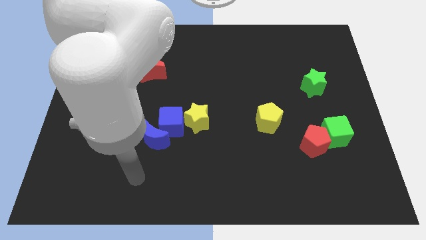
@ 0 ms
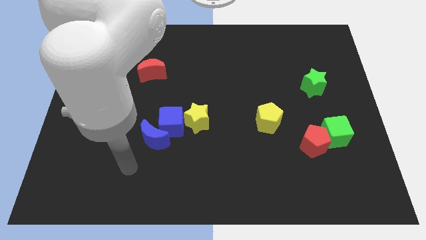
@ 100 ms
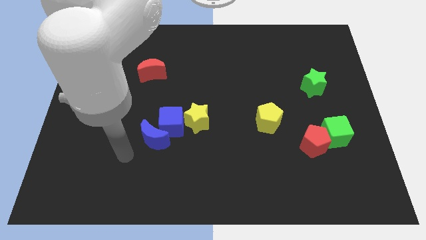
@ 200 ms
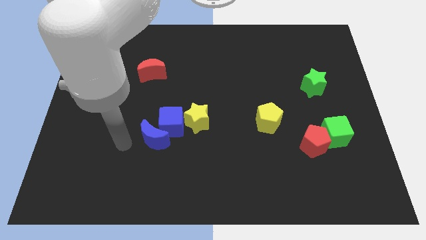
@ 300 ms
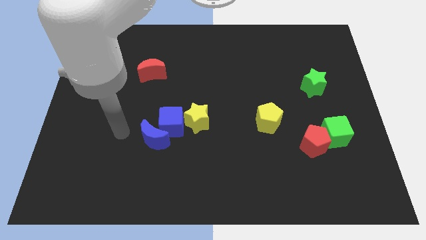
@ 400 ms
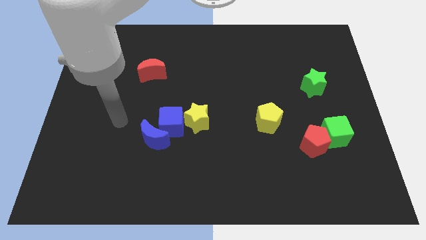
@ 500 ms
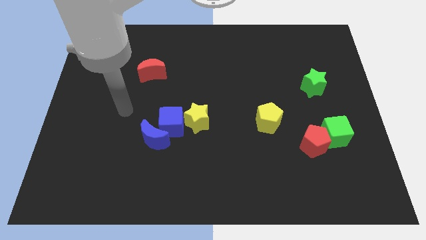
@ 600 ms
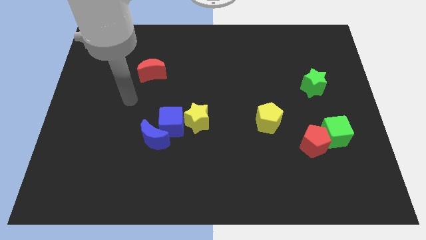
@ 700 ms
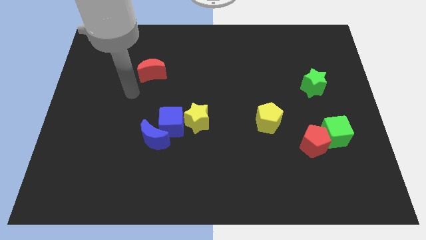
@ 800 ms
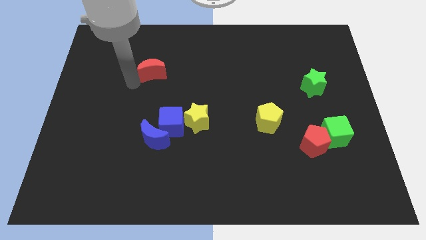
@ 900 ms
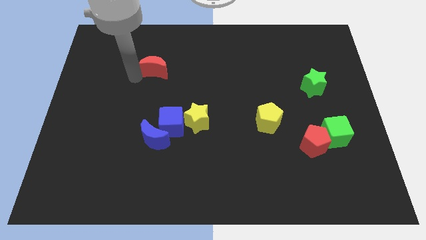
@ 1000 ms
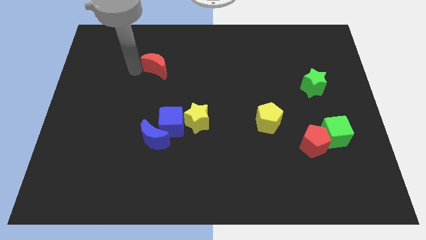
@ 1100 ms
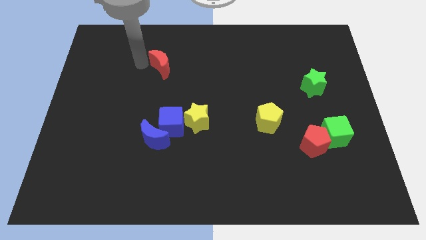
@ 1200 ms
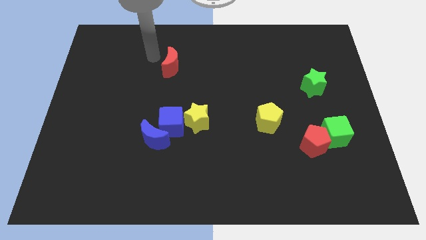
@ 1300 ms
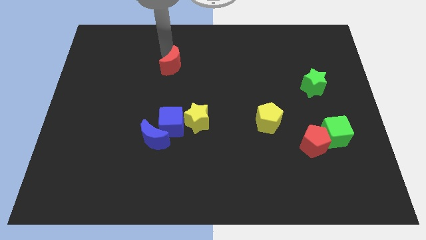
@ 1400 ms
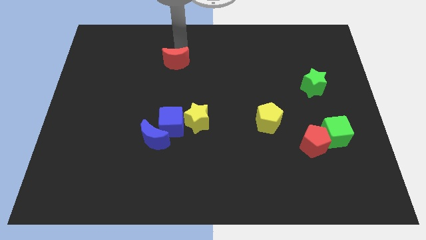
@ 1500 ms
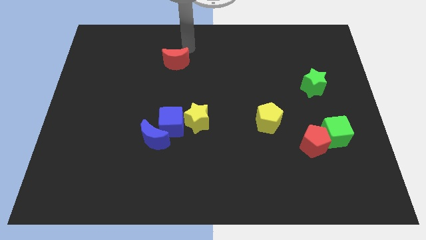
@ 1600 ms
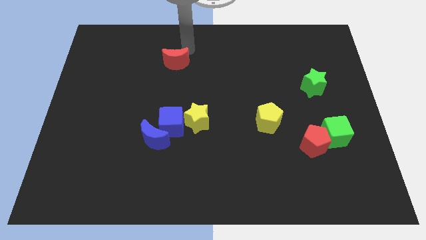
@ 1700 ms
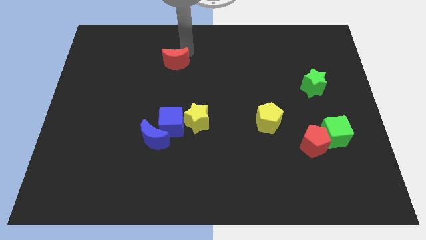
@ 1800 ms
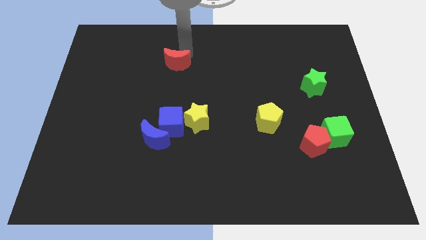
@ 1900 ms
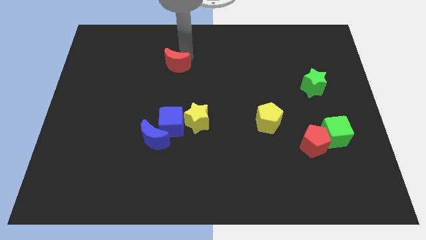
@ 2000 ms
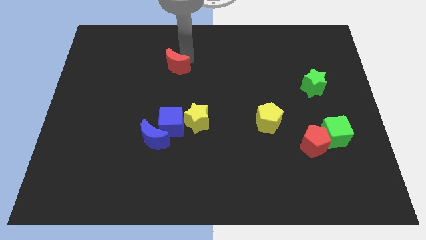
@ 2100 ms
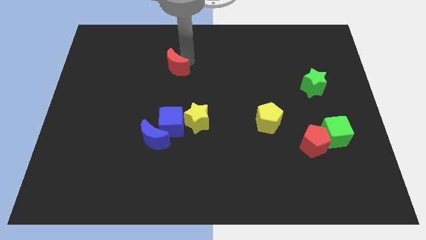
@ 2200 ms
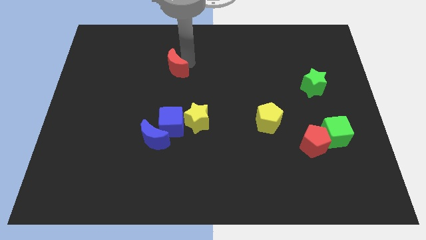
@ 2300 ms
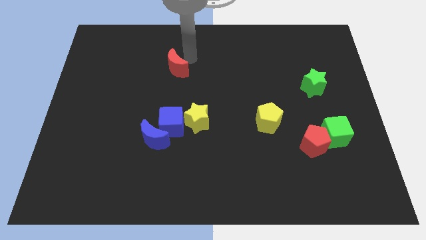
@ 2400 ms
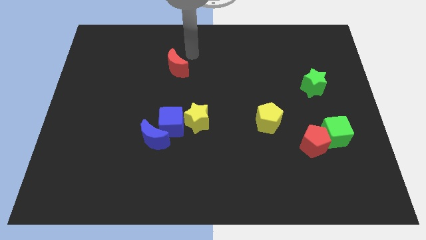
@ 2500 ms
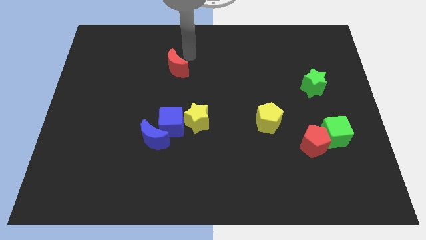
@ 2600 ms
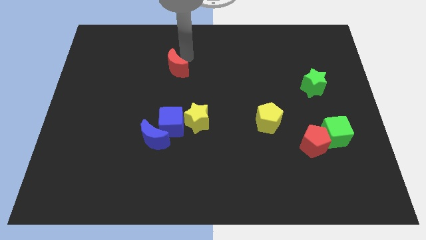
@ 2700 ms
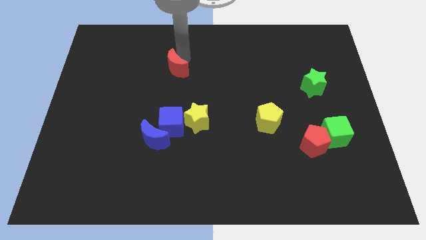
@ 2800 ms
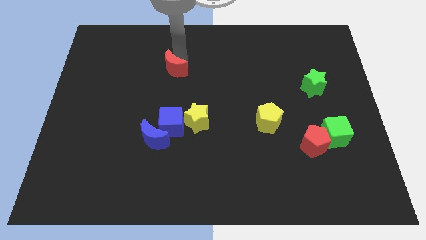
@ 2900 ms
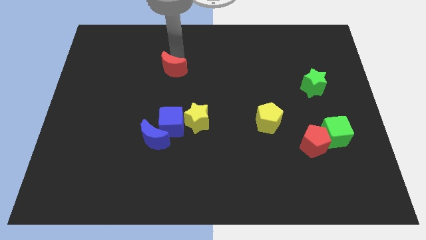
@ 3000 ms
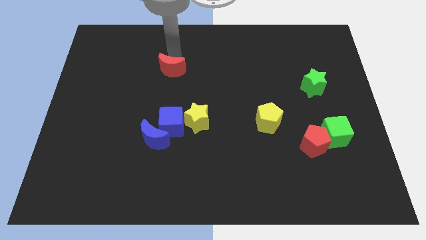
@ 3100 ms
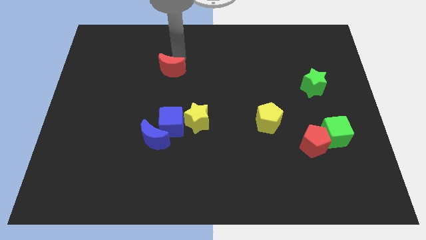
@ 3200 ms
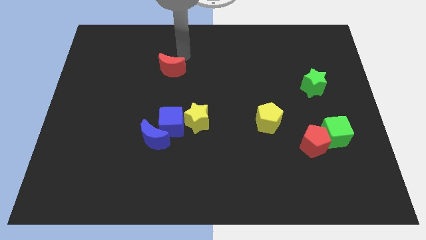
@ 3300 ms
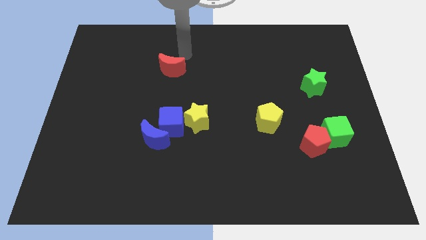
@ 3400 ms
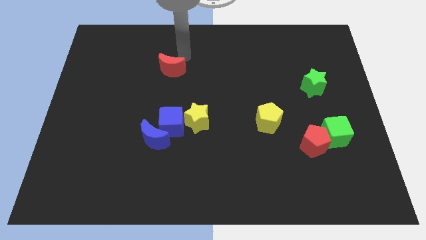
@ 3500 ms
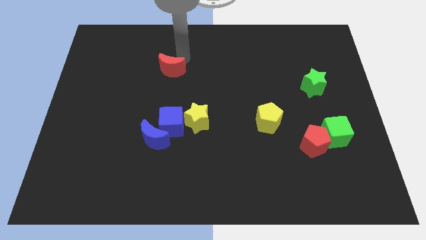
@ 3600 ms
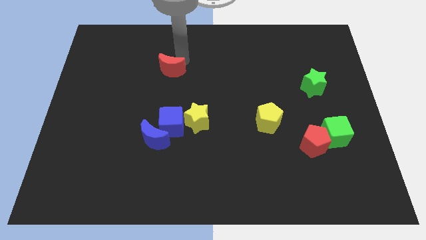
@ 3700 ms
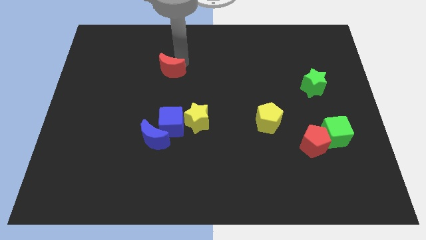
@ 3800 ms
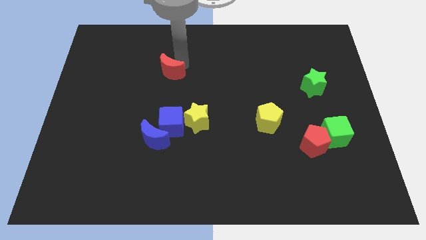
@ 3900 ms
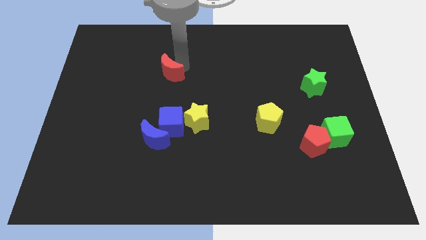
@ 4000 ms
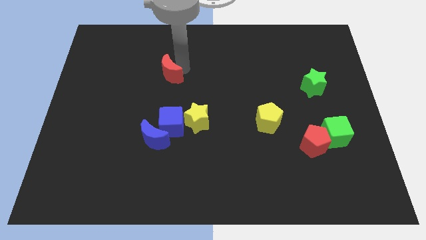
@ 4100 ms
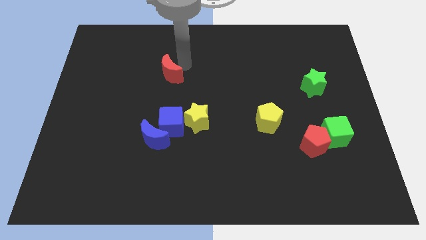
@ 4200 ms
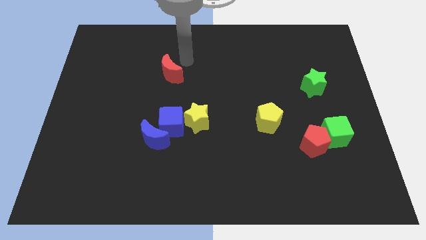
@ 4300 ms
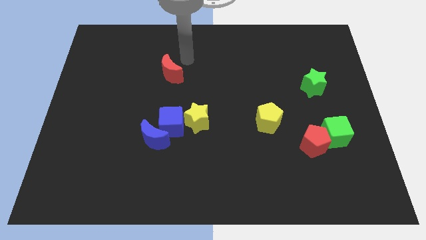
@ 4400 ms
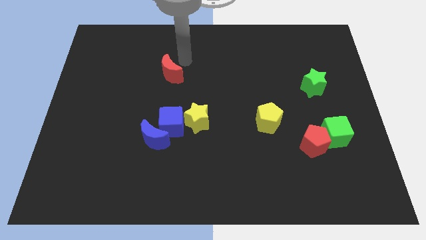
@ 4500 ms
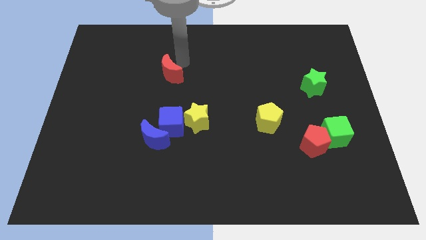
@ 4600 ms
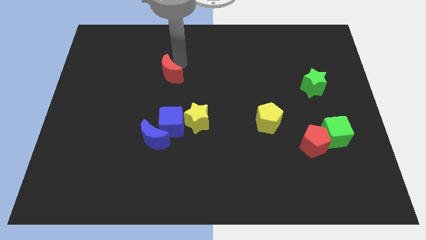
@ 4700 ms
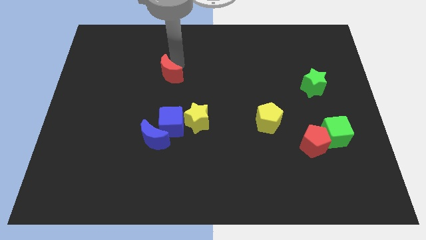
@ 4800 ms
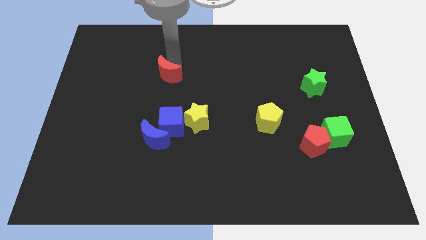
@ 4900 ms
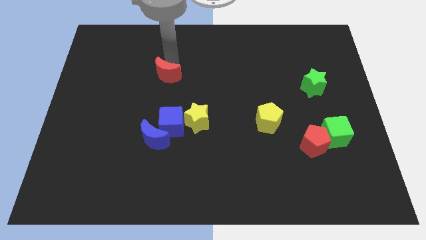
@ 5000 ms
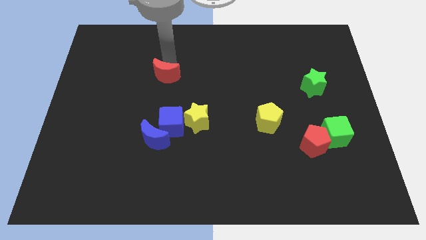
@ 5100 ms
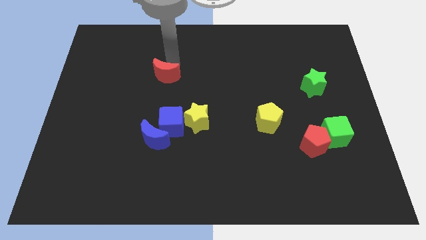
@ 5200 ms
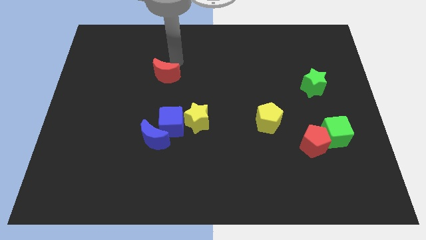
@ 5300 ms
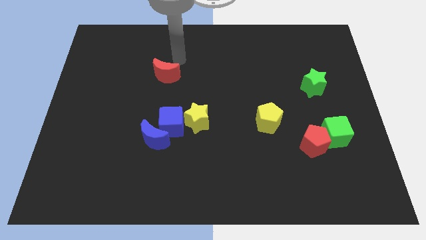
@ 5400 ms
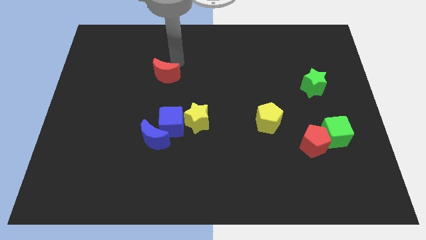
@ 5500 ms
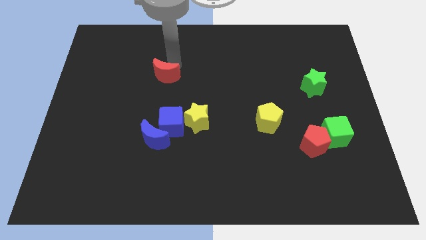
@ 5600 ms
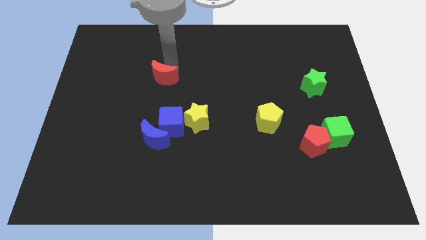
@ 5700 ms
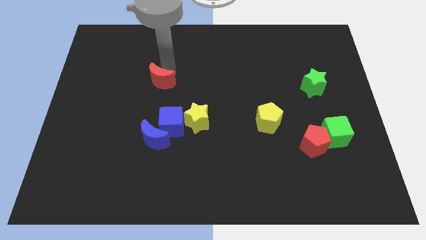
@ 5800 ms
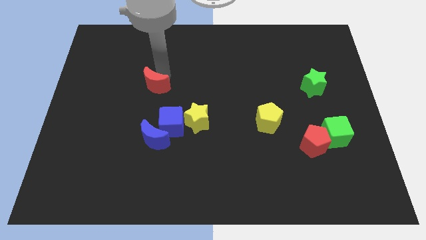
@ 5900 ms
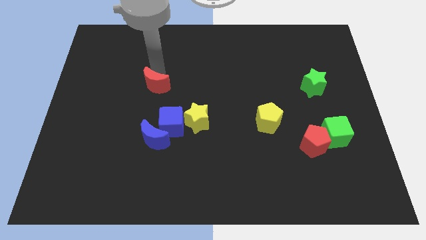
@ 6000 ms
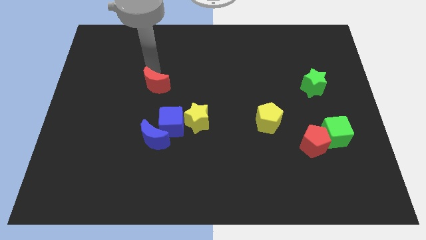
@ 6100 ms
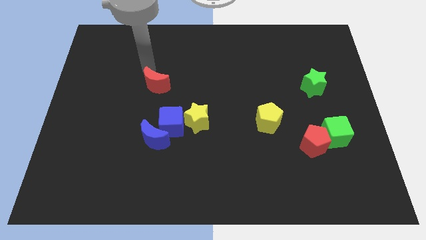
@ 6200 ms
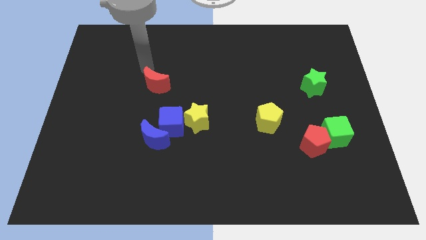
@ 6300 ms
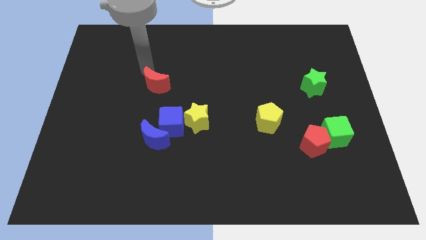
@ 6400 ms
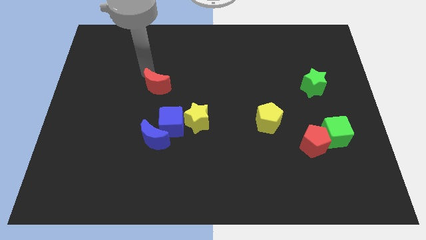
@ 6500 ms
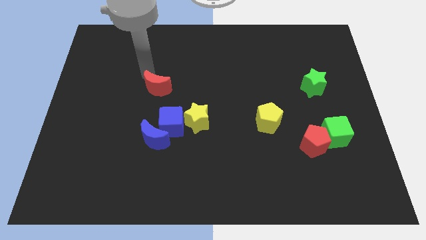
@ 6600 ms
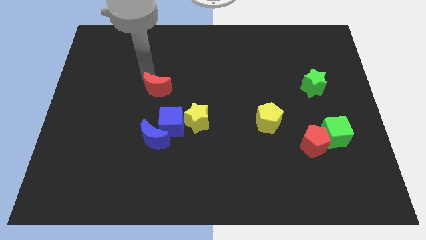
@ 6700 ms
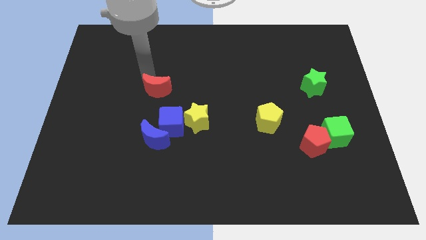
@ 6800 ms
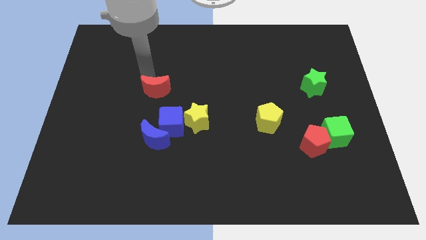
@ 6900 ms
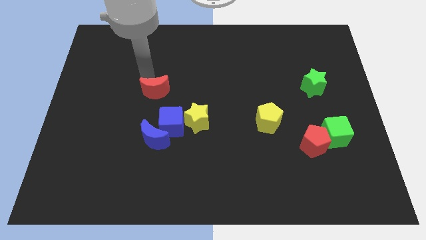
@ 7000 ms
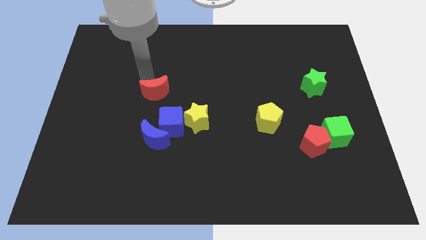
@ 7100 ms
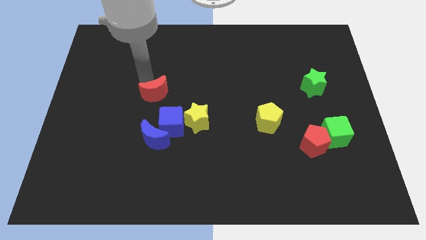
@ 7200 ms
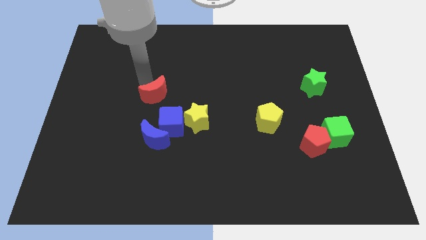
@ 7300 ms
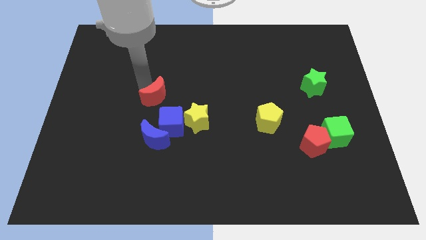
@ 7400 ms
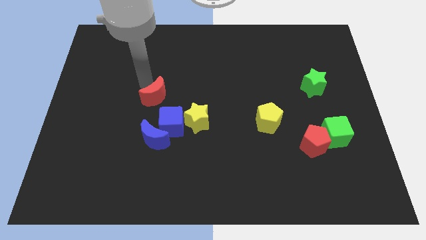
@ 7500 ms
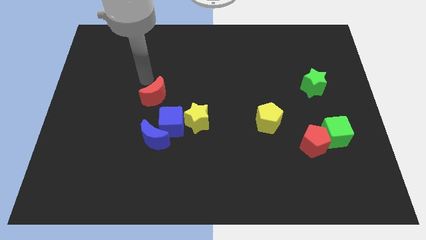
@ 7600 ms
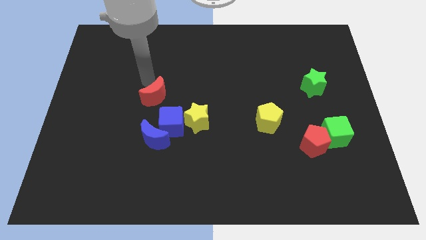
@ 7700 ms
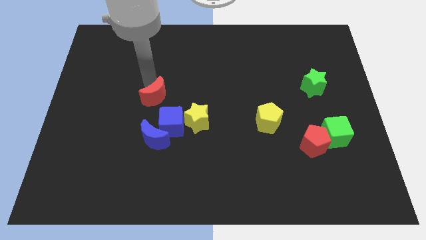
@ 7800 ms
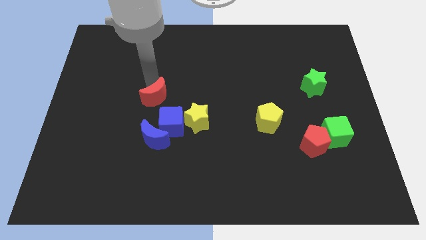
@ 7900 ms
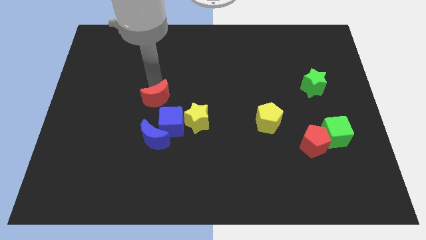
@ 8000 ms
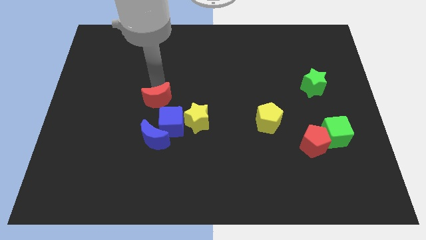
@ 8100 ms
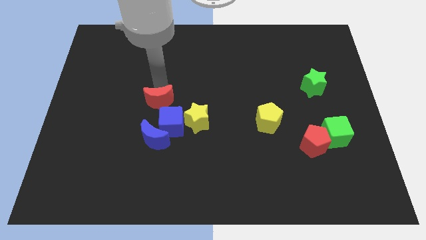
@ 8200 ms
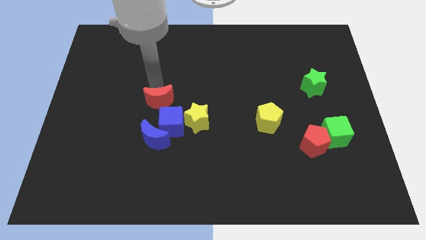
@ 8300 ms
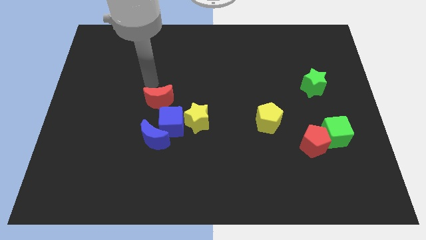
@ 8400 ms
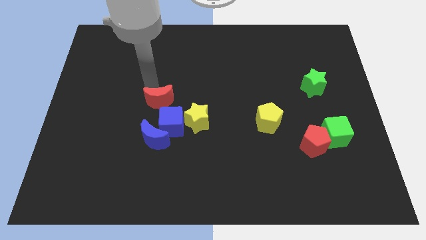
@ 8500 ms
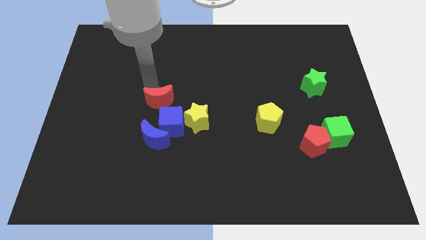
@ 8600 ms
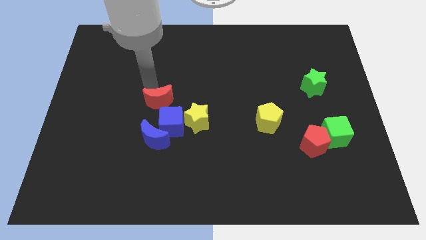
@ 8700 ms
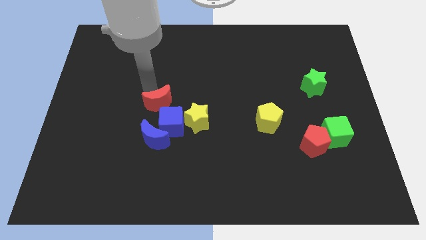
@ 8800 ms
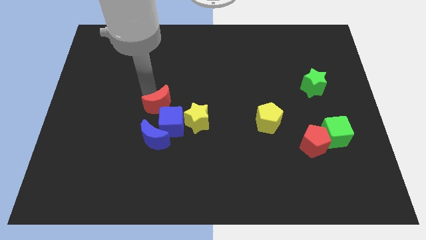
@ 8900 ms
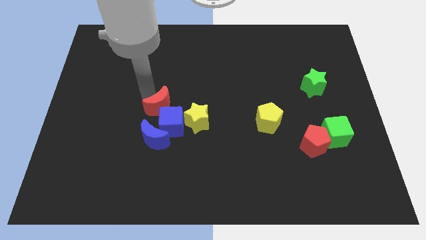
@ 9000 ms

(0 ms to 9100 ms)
slide the red moon close to the blue cube
